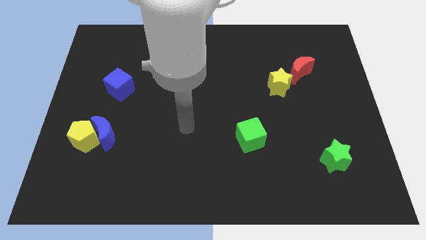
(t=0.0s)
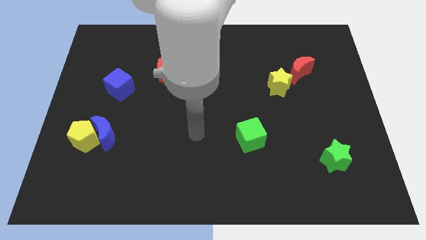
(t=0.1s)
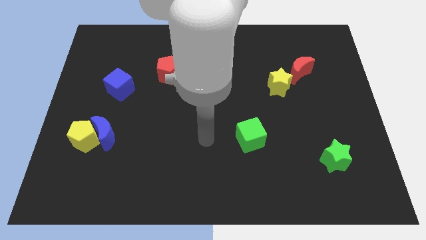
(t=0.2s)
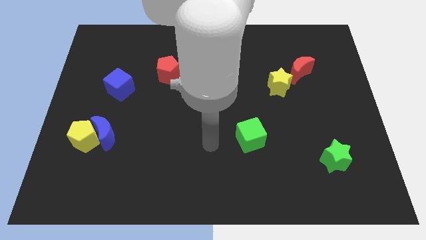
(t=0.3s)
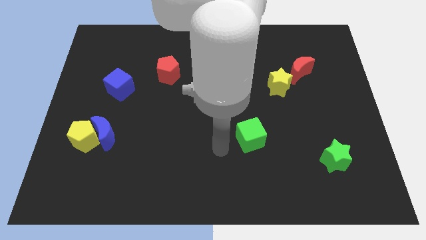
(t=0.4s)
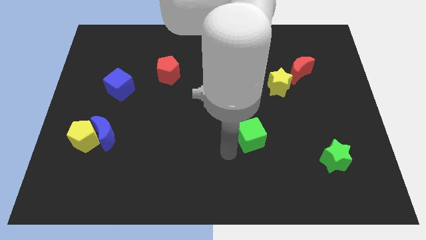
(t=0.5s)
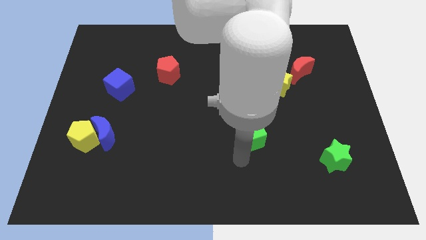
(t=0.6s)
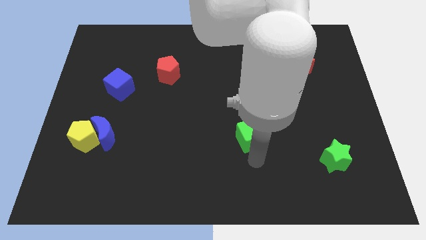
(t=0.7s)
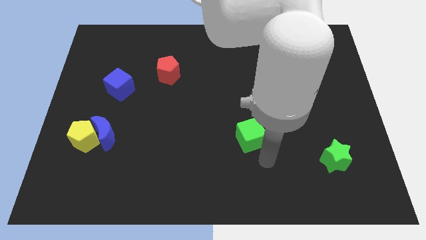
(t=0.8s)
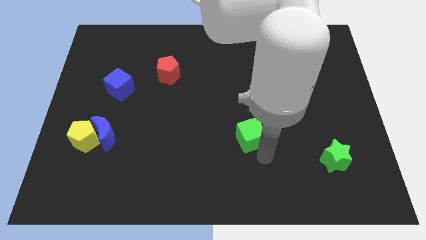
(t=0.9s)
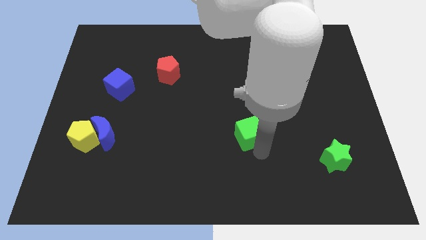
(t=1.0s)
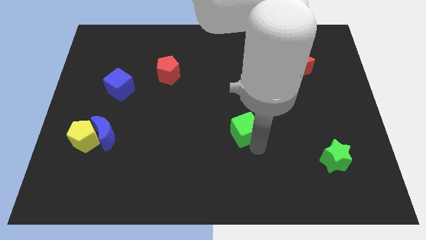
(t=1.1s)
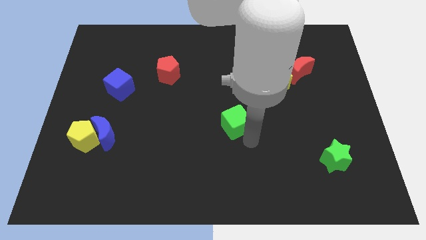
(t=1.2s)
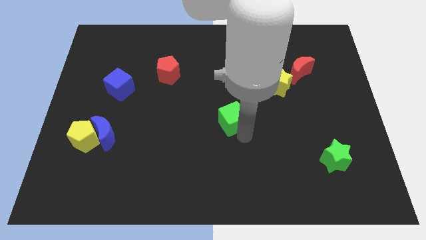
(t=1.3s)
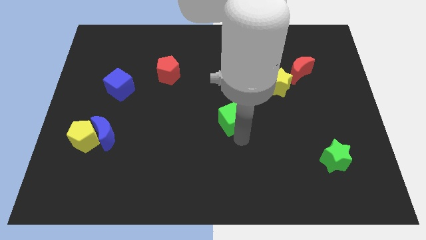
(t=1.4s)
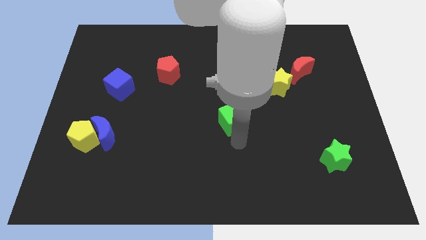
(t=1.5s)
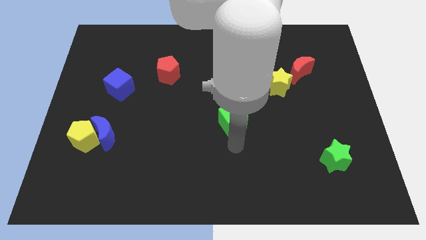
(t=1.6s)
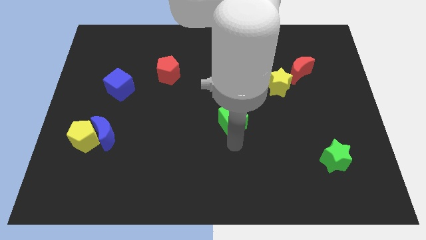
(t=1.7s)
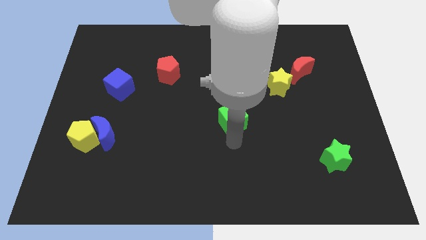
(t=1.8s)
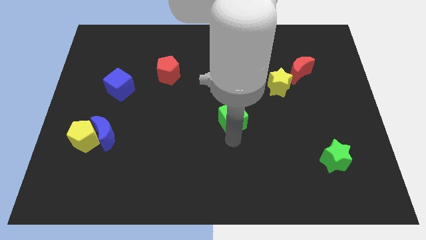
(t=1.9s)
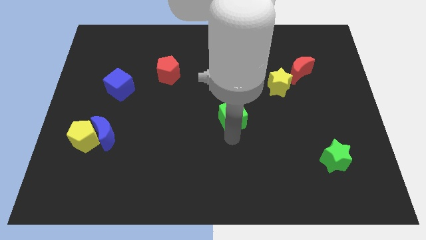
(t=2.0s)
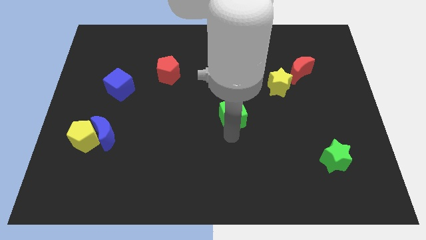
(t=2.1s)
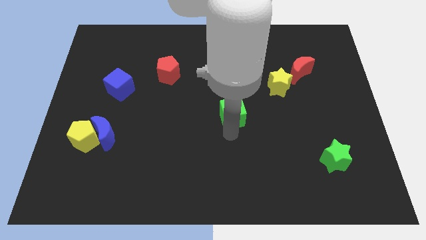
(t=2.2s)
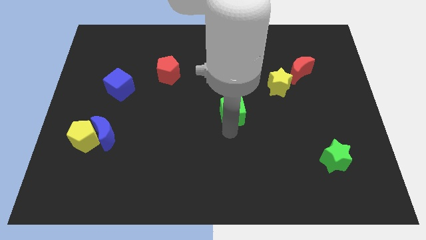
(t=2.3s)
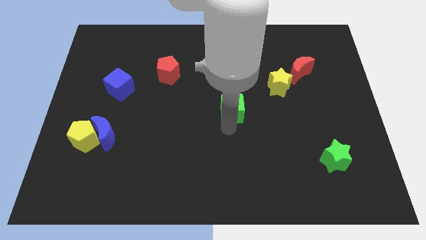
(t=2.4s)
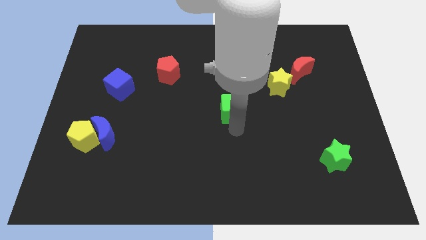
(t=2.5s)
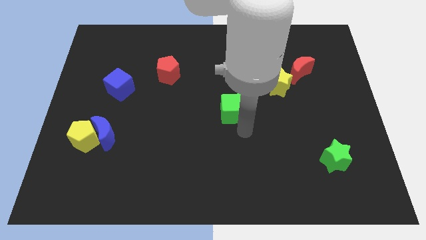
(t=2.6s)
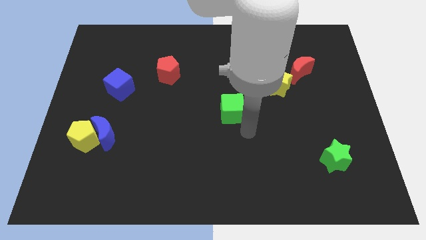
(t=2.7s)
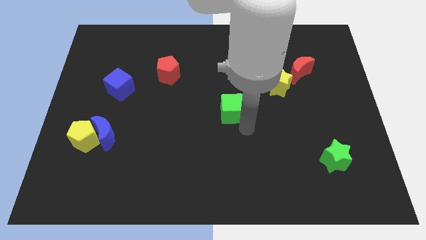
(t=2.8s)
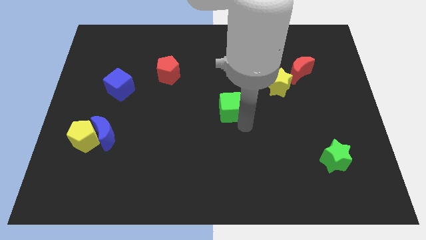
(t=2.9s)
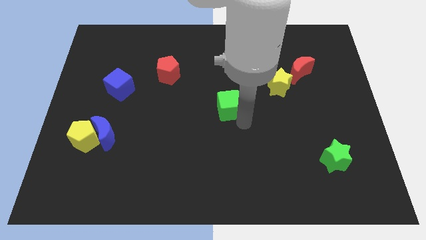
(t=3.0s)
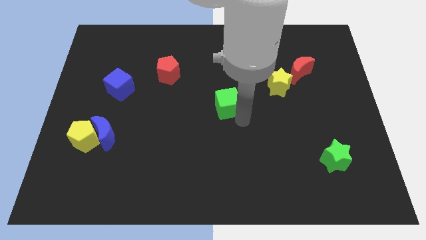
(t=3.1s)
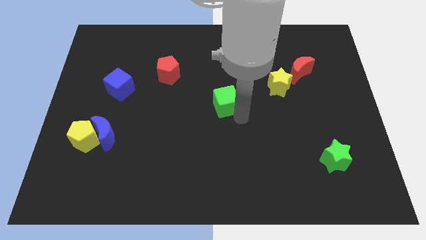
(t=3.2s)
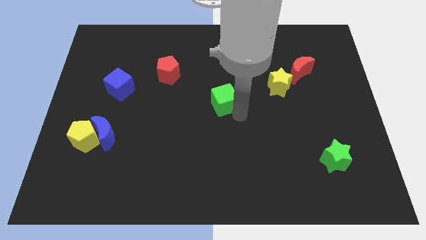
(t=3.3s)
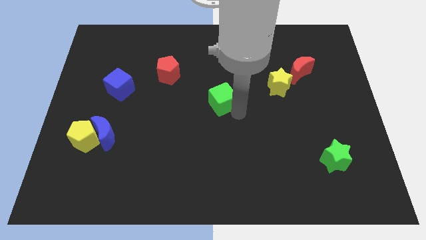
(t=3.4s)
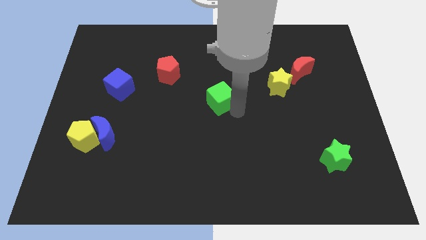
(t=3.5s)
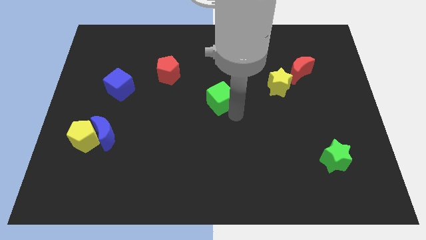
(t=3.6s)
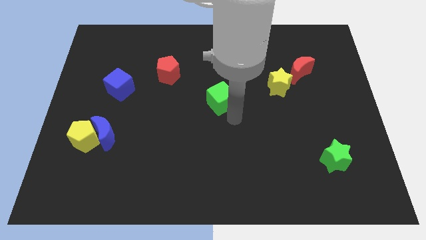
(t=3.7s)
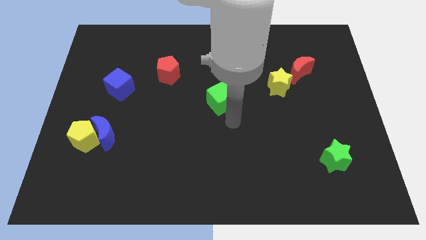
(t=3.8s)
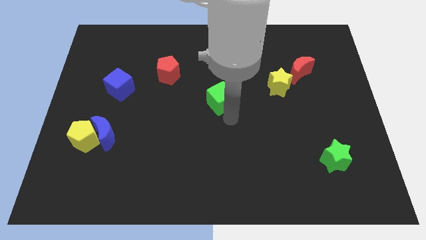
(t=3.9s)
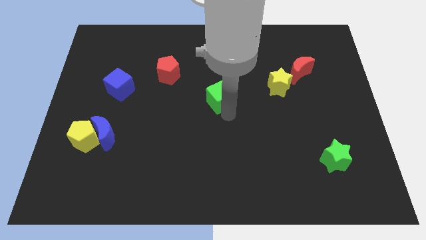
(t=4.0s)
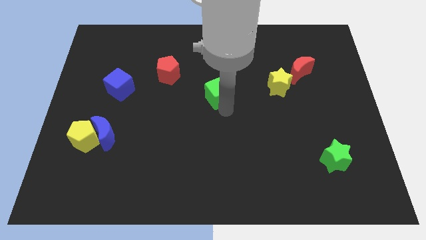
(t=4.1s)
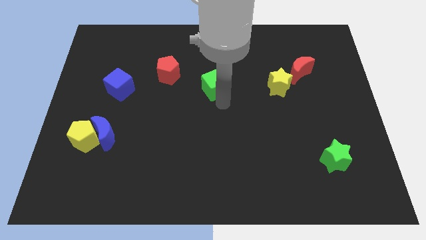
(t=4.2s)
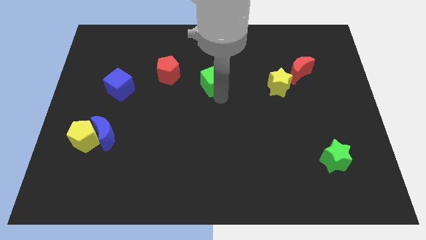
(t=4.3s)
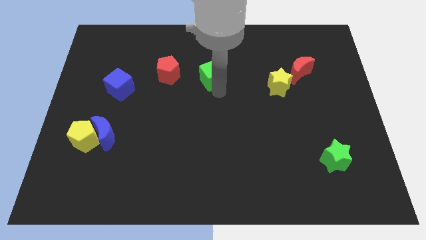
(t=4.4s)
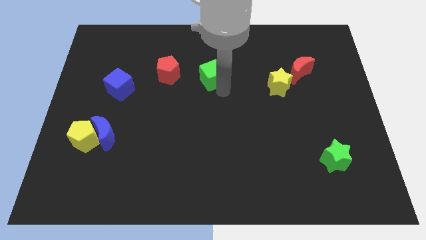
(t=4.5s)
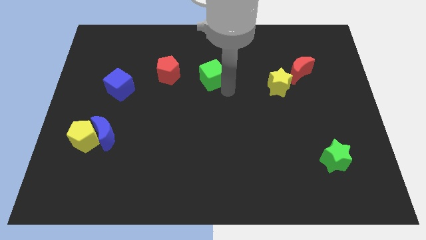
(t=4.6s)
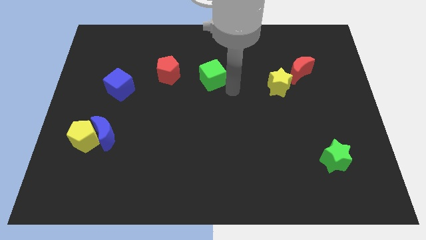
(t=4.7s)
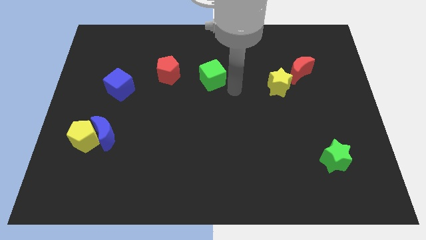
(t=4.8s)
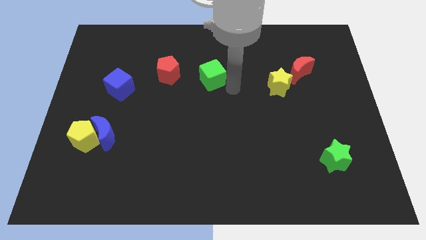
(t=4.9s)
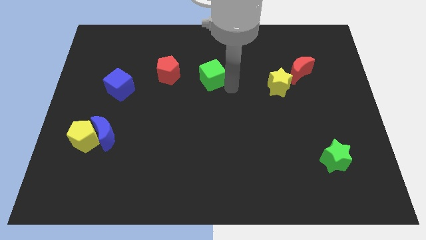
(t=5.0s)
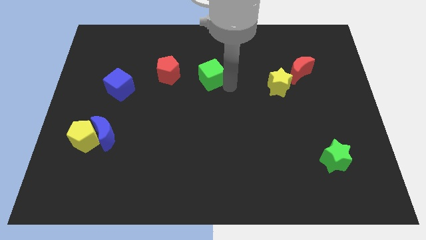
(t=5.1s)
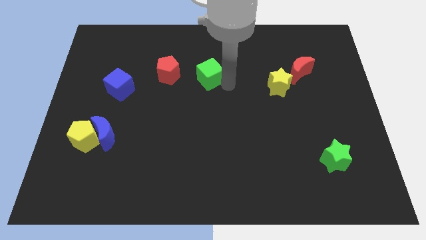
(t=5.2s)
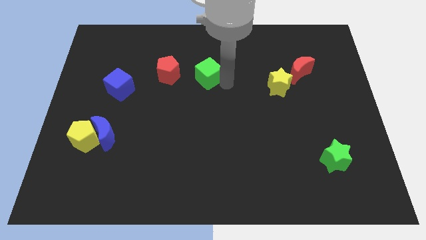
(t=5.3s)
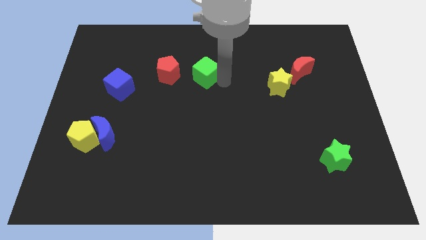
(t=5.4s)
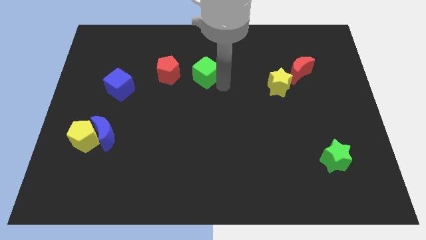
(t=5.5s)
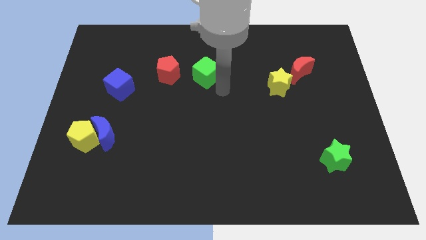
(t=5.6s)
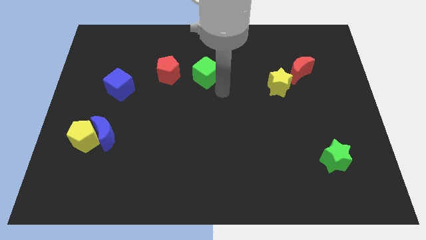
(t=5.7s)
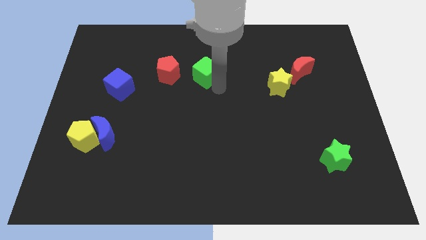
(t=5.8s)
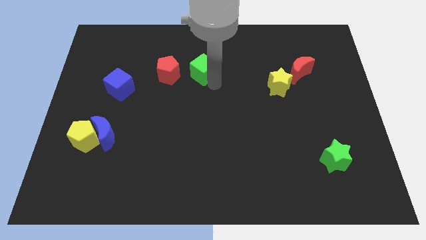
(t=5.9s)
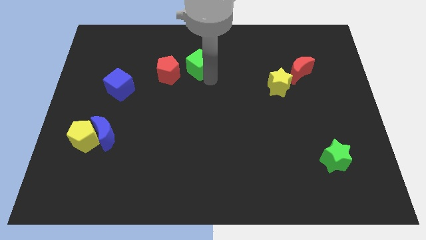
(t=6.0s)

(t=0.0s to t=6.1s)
move the green cube diagonally up and to the right of the red pentagon
